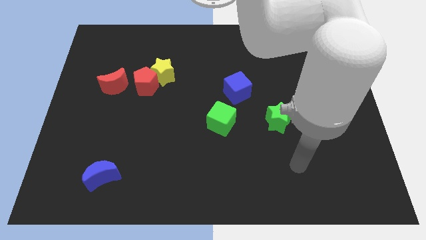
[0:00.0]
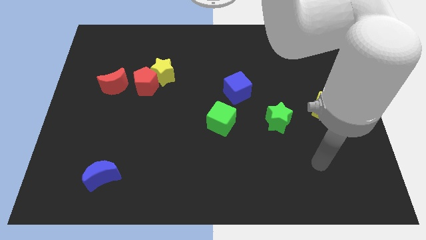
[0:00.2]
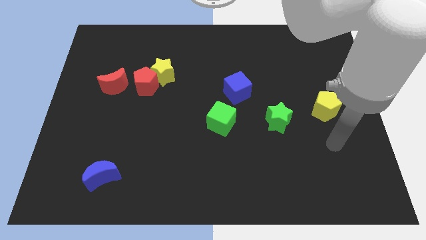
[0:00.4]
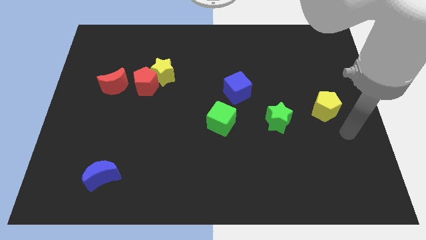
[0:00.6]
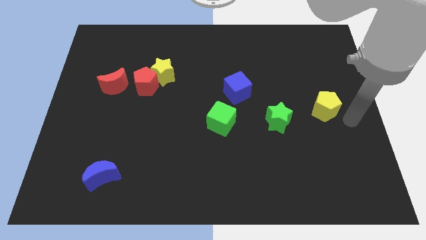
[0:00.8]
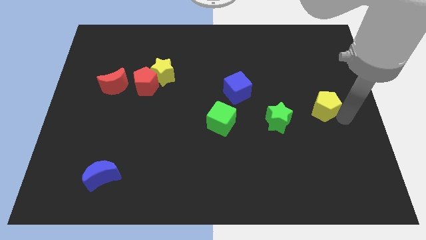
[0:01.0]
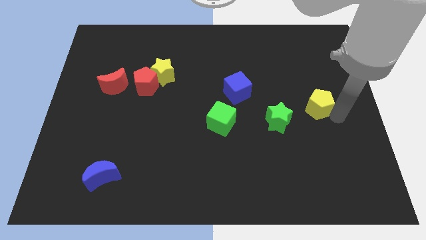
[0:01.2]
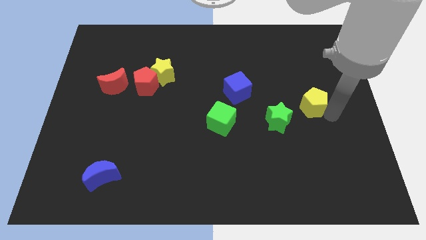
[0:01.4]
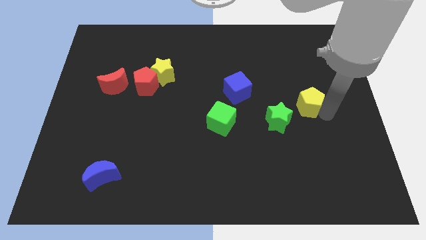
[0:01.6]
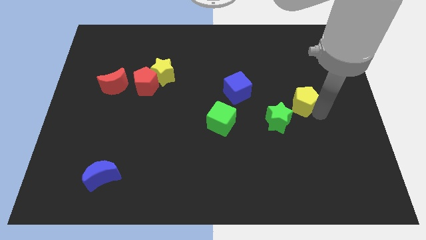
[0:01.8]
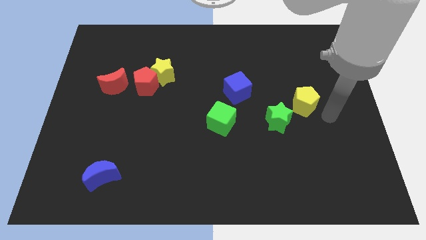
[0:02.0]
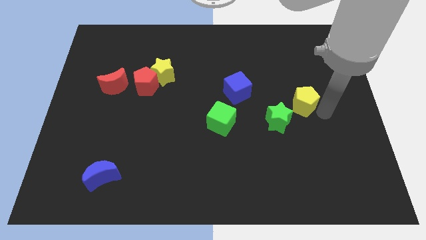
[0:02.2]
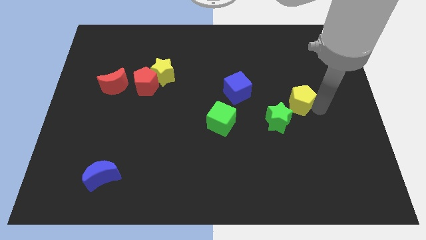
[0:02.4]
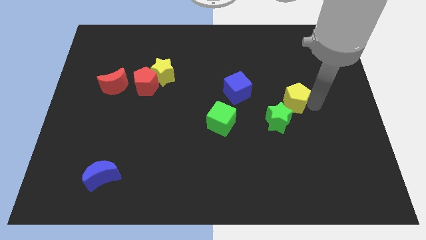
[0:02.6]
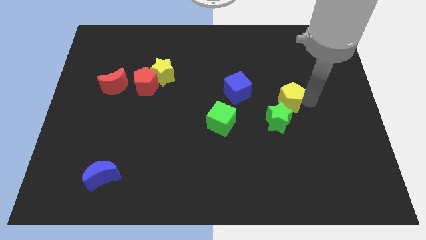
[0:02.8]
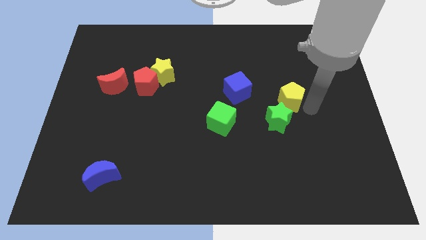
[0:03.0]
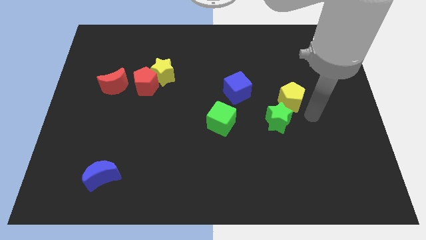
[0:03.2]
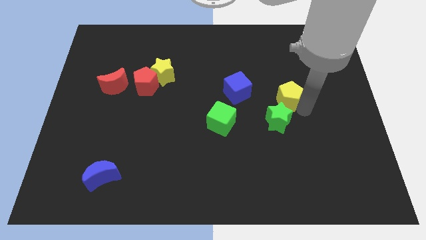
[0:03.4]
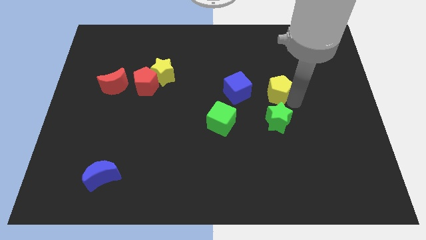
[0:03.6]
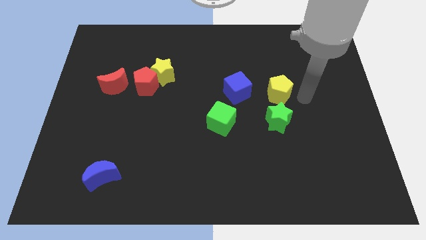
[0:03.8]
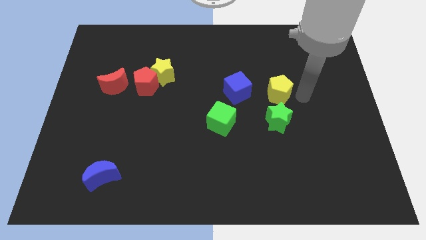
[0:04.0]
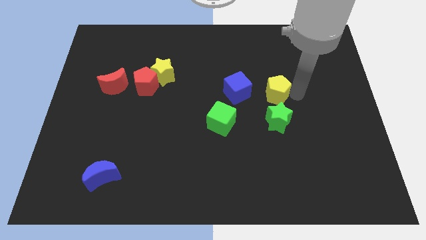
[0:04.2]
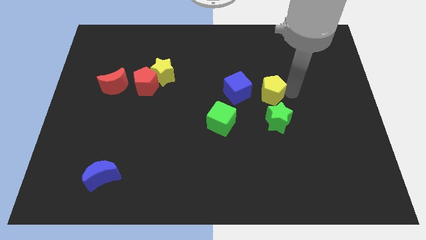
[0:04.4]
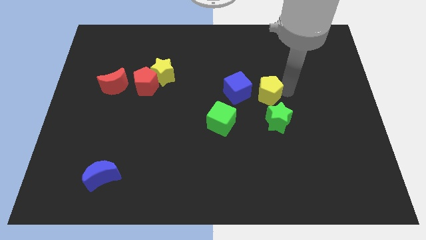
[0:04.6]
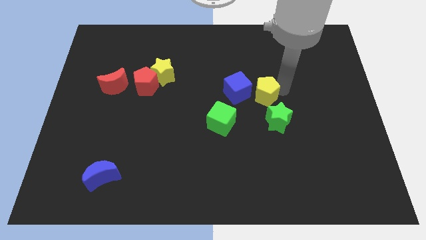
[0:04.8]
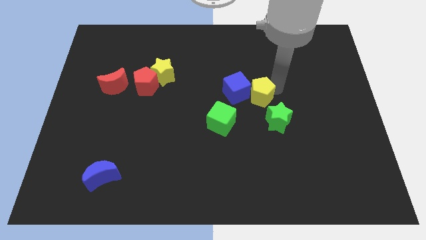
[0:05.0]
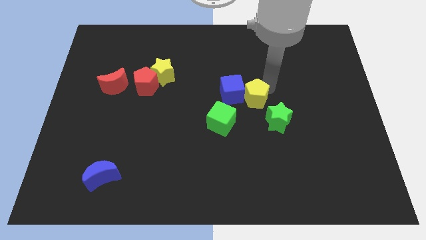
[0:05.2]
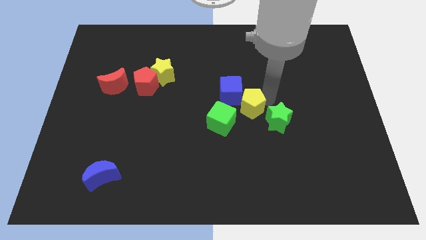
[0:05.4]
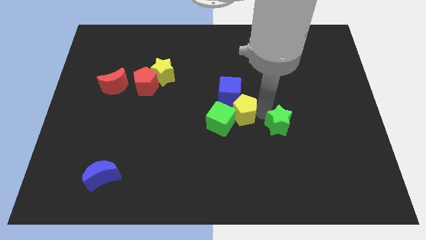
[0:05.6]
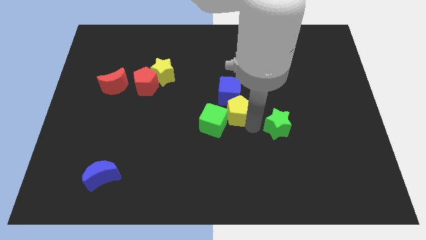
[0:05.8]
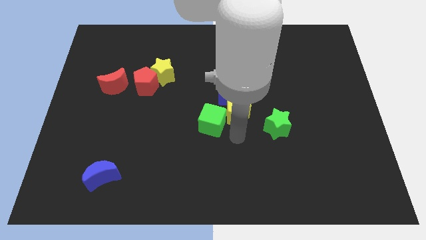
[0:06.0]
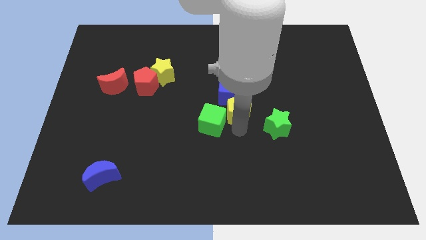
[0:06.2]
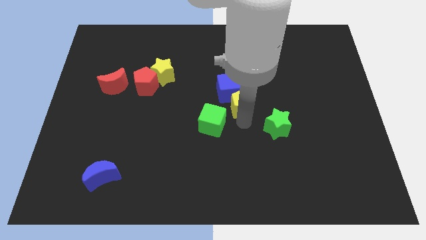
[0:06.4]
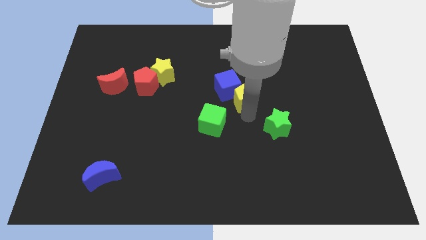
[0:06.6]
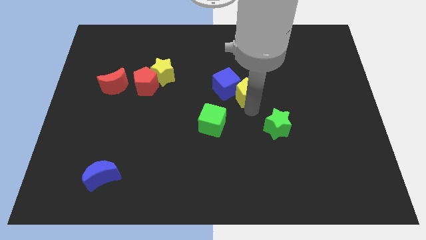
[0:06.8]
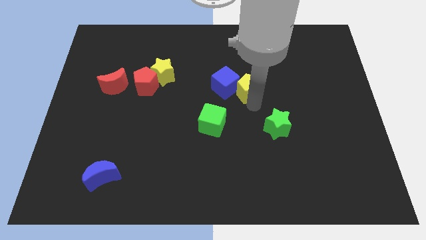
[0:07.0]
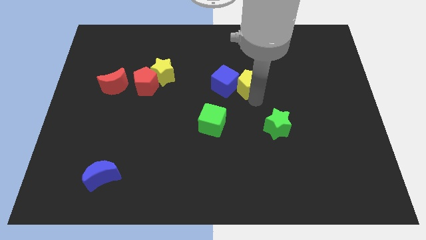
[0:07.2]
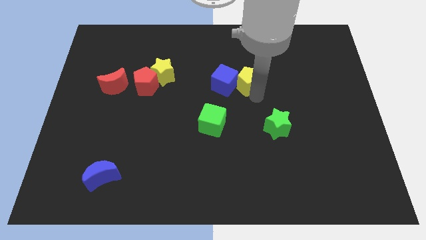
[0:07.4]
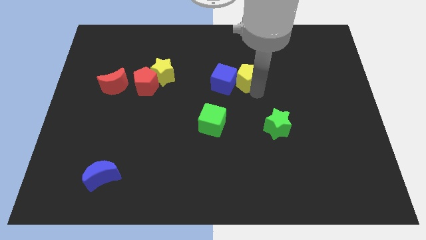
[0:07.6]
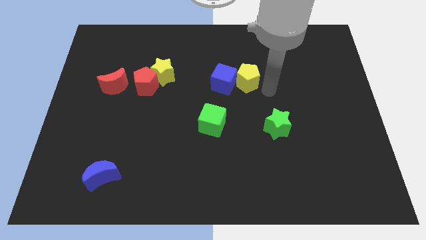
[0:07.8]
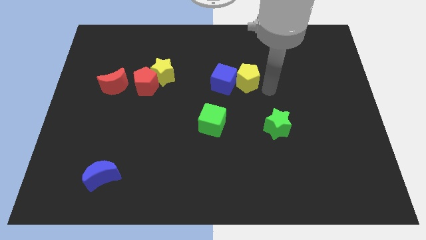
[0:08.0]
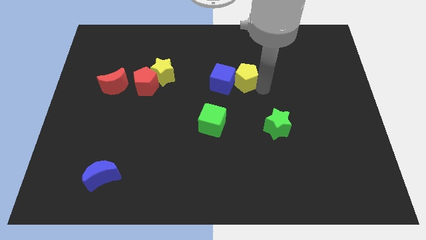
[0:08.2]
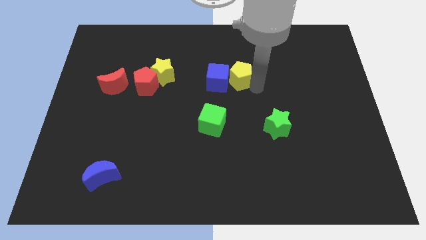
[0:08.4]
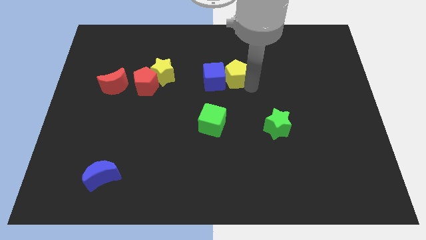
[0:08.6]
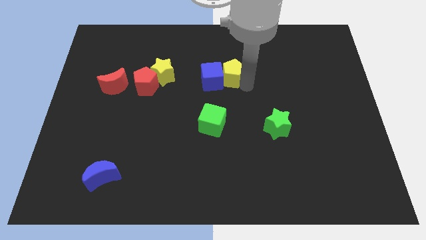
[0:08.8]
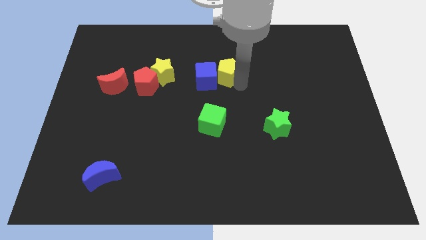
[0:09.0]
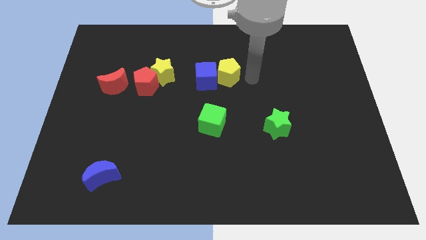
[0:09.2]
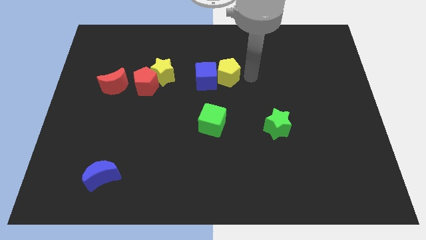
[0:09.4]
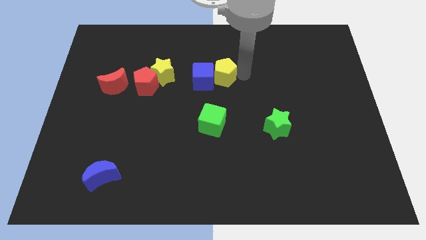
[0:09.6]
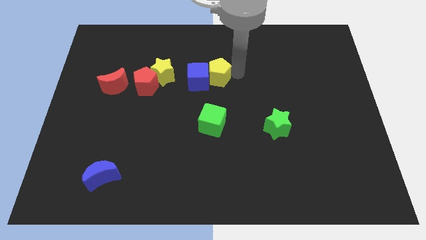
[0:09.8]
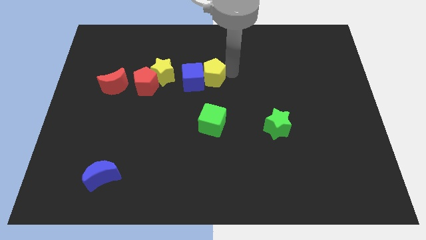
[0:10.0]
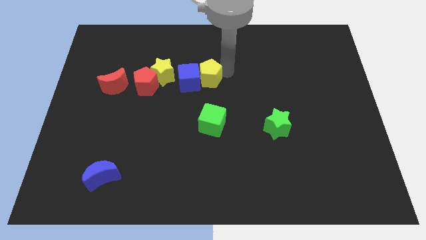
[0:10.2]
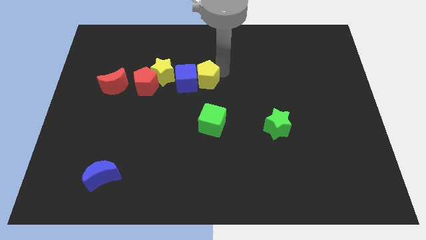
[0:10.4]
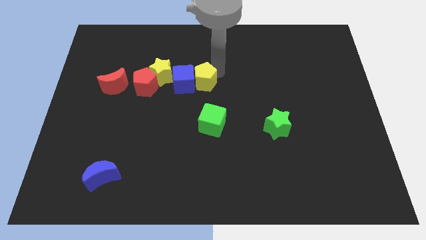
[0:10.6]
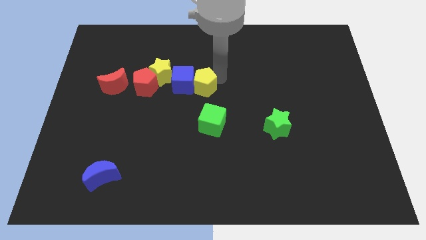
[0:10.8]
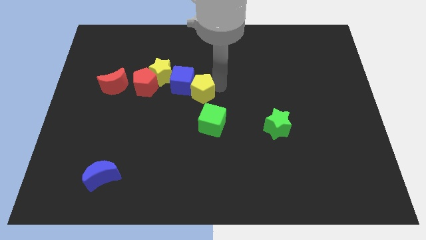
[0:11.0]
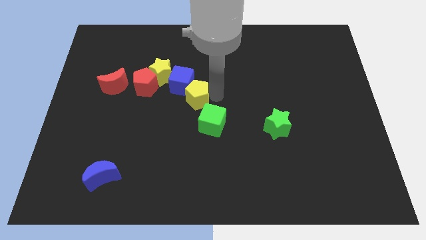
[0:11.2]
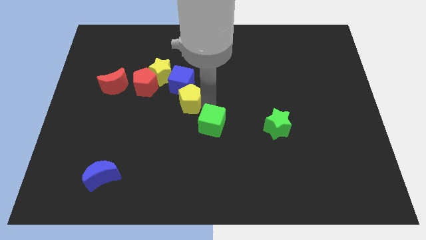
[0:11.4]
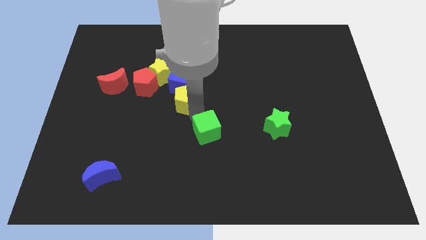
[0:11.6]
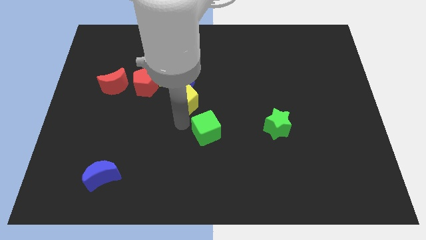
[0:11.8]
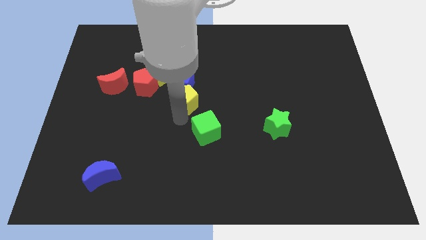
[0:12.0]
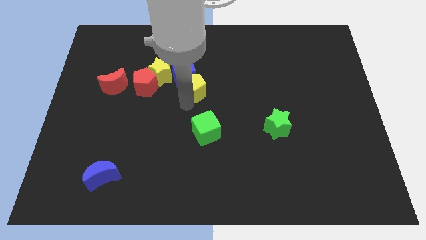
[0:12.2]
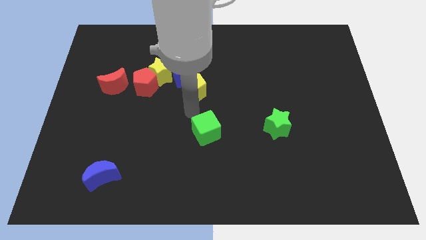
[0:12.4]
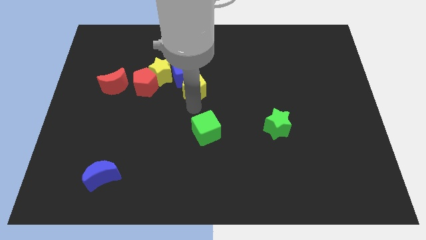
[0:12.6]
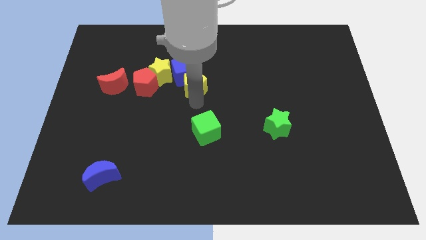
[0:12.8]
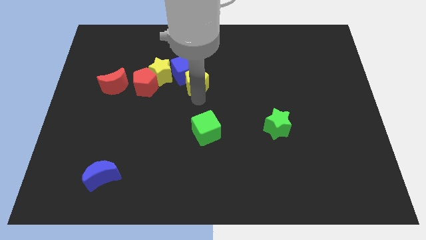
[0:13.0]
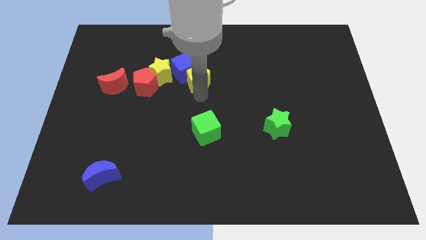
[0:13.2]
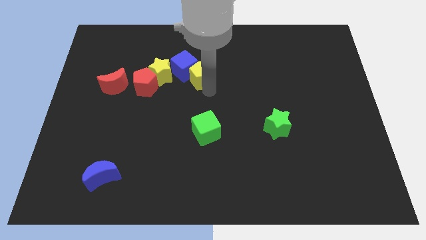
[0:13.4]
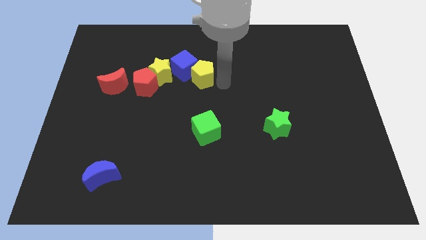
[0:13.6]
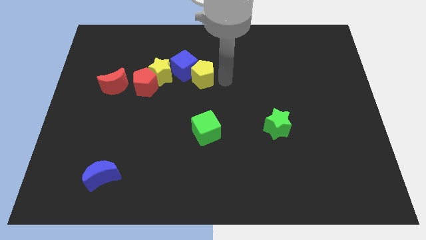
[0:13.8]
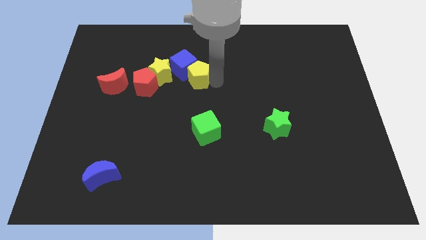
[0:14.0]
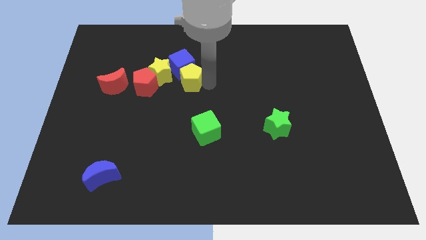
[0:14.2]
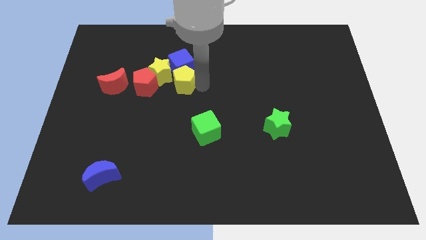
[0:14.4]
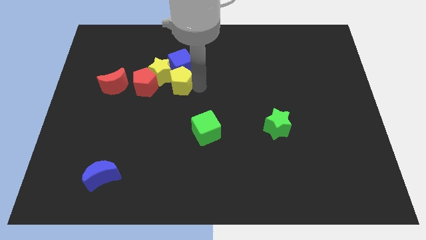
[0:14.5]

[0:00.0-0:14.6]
push the yellow pentagon towards the yellow star
